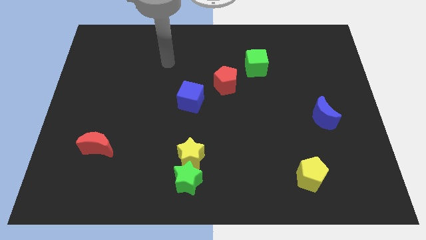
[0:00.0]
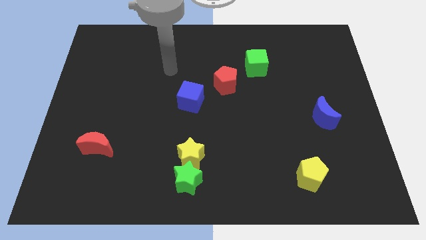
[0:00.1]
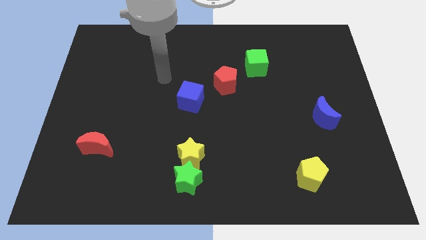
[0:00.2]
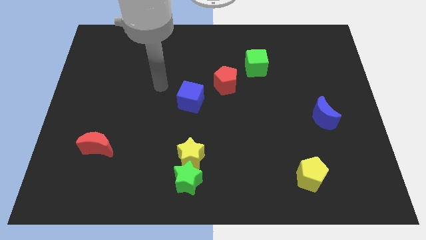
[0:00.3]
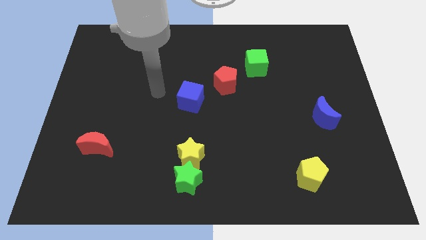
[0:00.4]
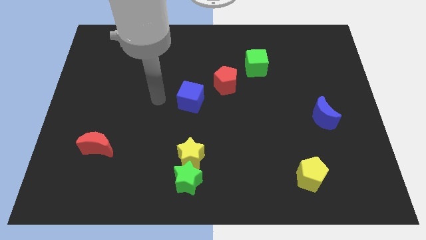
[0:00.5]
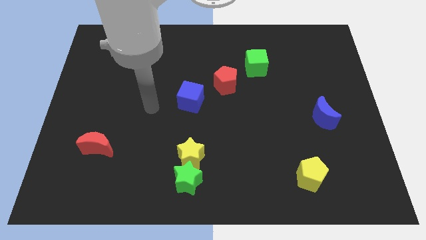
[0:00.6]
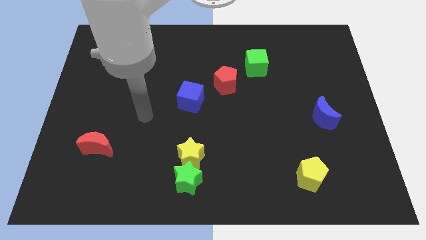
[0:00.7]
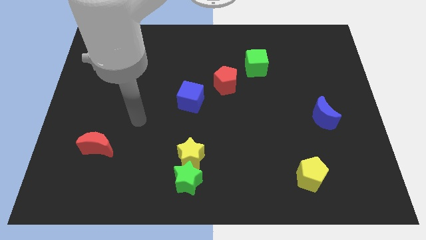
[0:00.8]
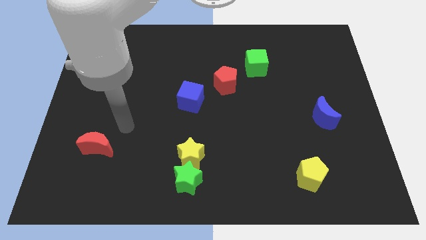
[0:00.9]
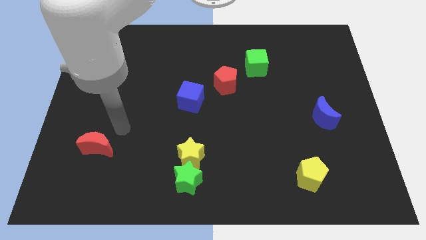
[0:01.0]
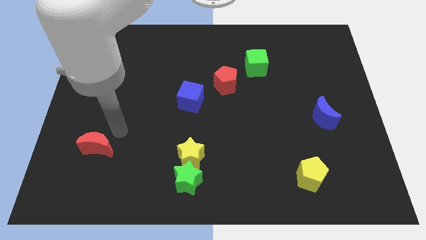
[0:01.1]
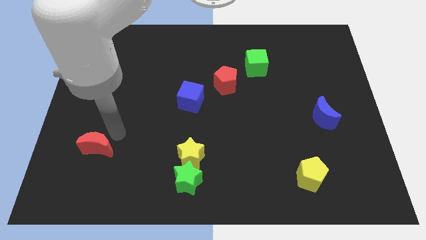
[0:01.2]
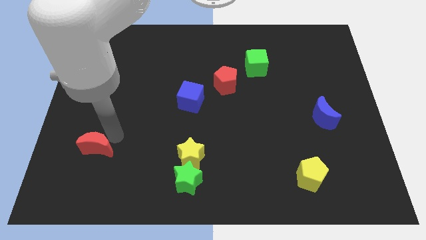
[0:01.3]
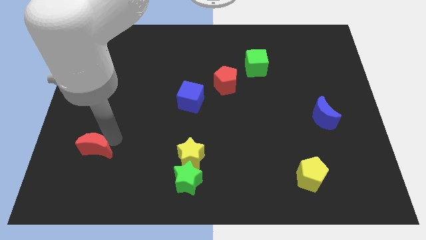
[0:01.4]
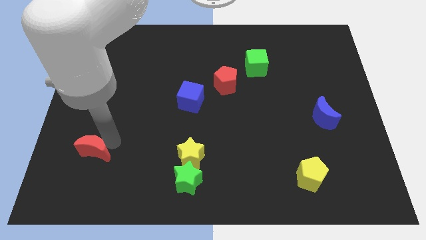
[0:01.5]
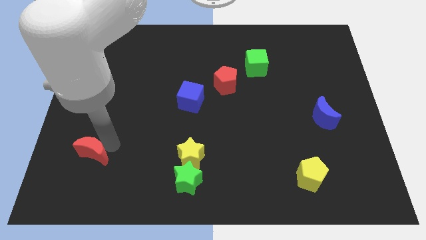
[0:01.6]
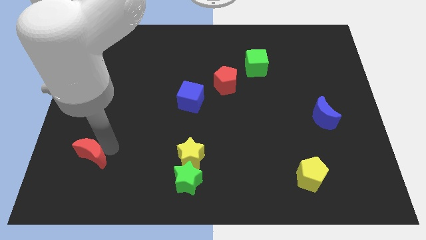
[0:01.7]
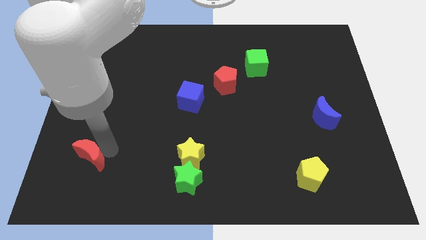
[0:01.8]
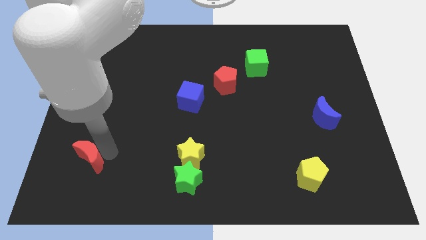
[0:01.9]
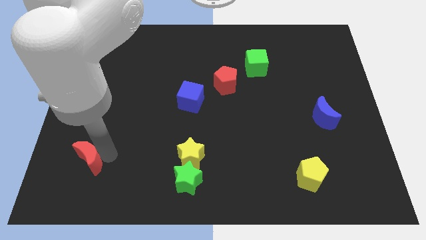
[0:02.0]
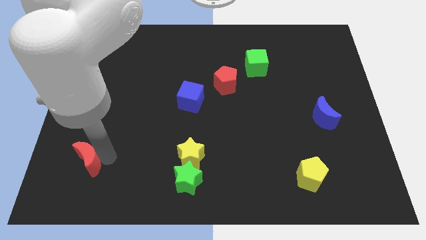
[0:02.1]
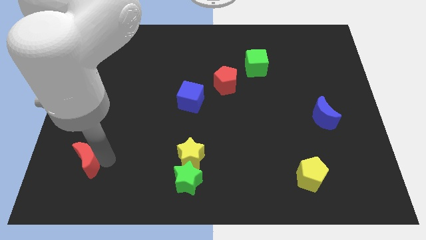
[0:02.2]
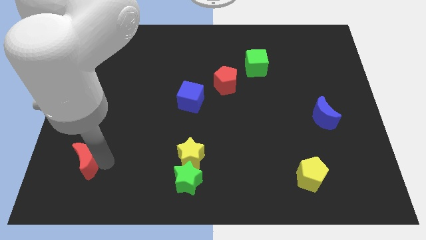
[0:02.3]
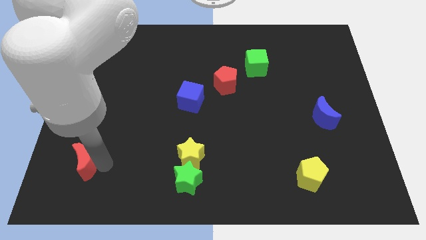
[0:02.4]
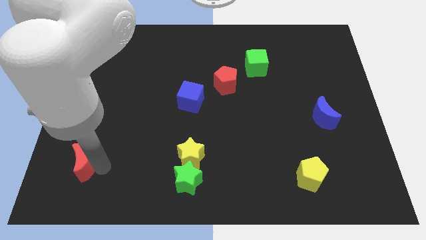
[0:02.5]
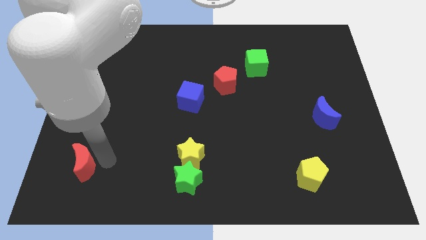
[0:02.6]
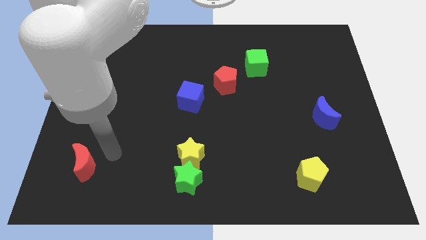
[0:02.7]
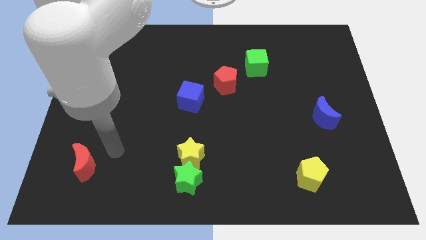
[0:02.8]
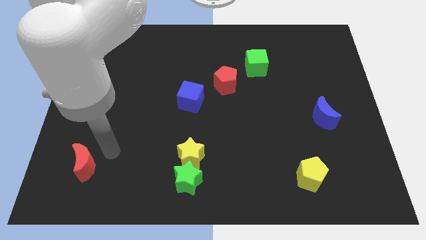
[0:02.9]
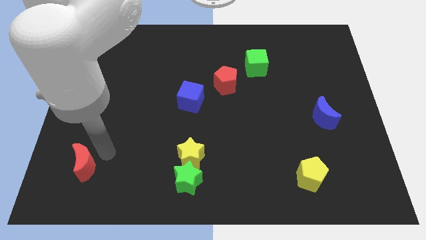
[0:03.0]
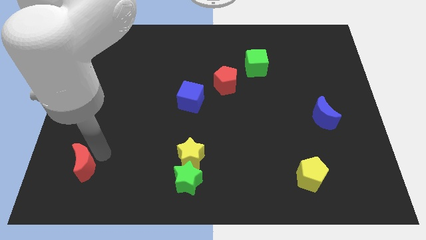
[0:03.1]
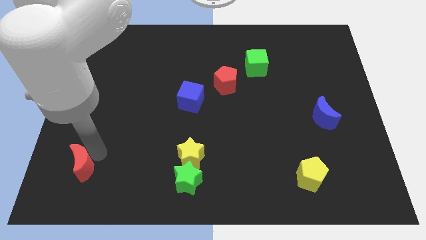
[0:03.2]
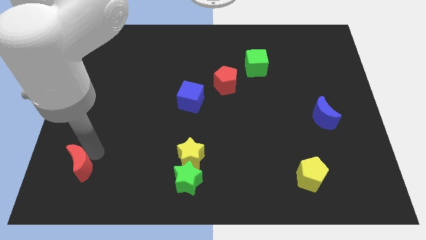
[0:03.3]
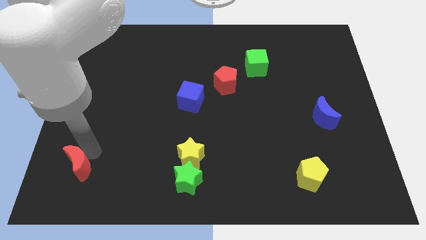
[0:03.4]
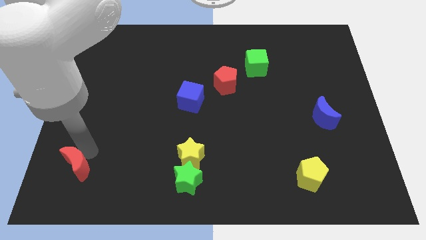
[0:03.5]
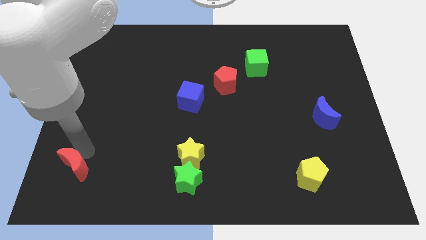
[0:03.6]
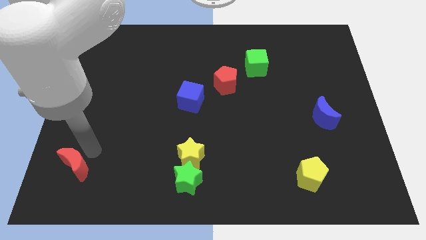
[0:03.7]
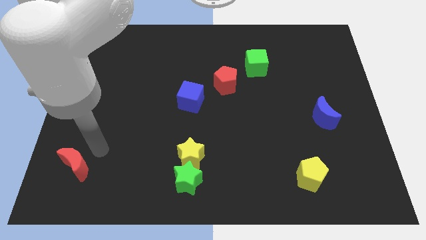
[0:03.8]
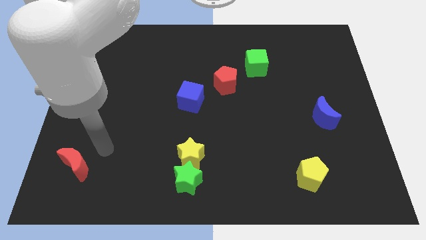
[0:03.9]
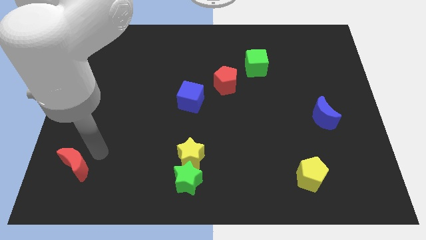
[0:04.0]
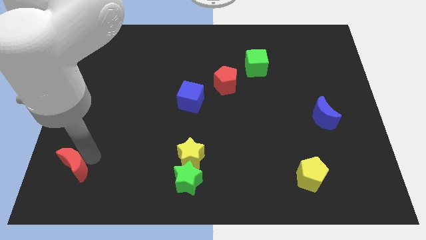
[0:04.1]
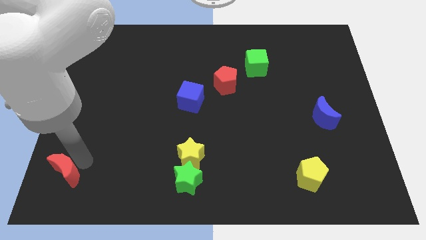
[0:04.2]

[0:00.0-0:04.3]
push the red moon to the bottom left corner

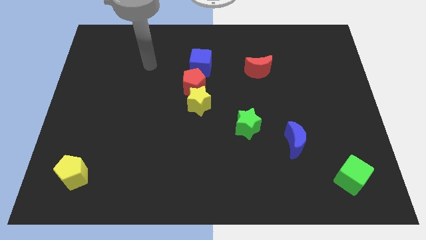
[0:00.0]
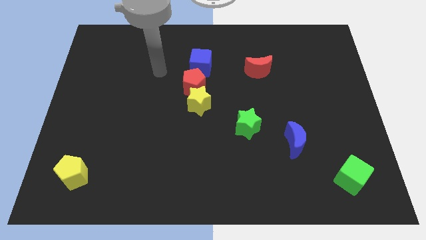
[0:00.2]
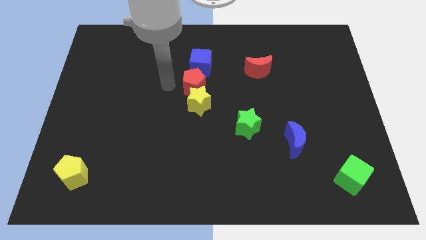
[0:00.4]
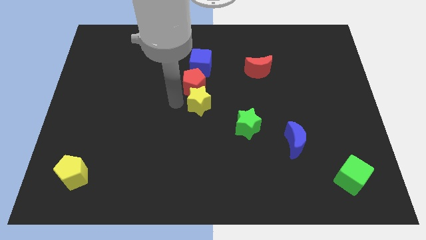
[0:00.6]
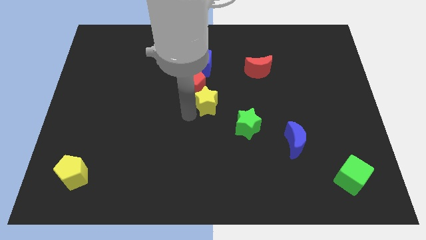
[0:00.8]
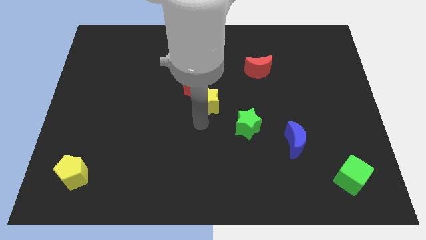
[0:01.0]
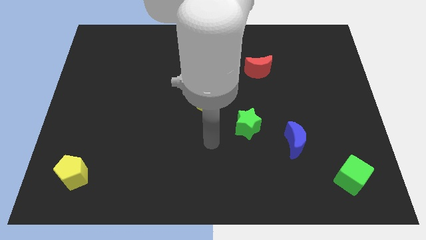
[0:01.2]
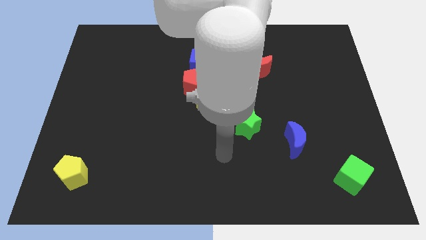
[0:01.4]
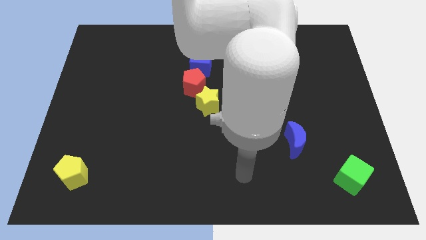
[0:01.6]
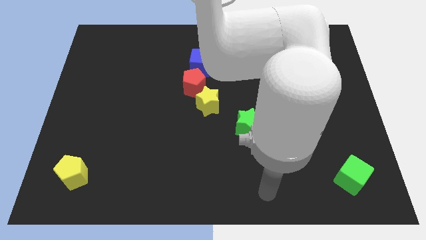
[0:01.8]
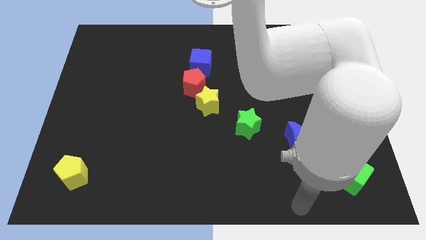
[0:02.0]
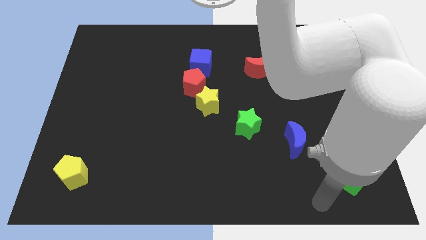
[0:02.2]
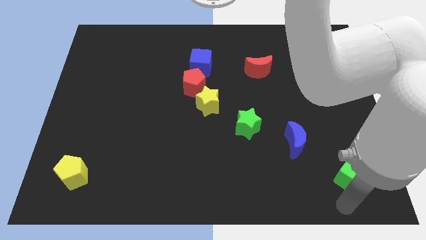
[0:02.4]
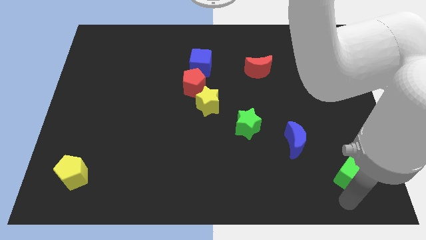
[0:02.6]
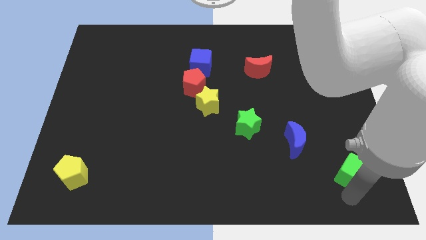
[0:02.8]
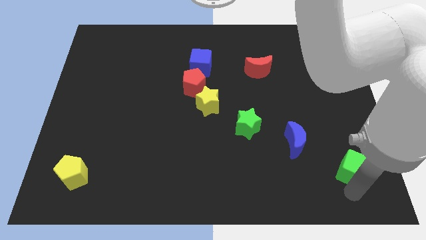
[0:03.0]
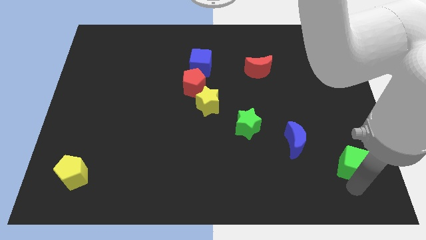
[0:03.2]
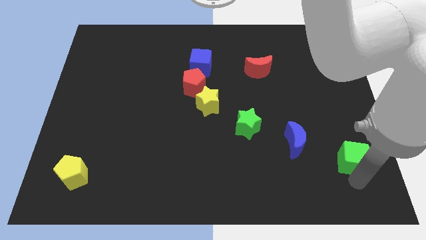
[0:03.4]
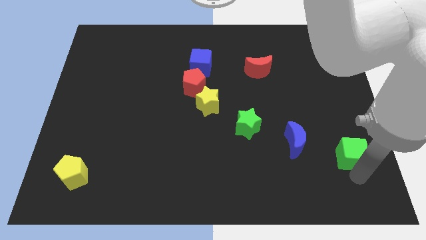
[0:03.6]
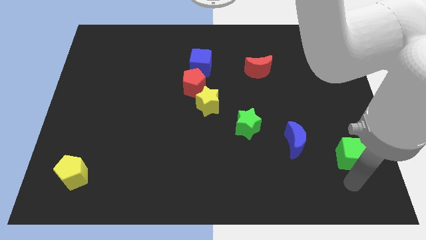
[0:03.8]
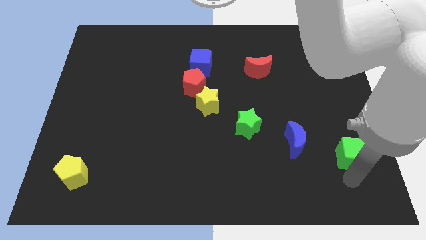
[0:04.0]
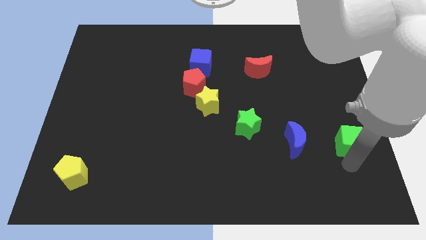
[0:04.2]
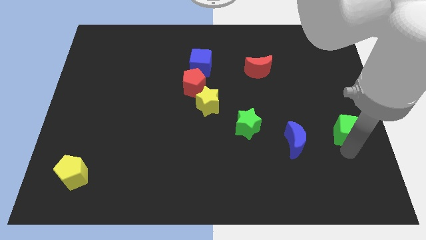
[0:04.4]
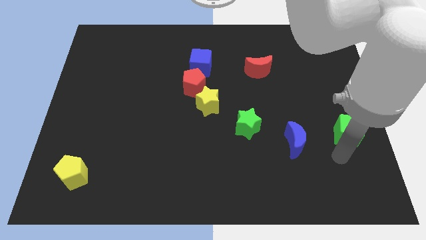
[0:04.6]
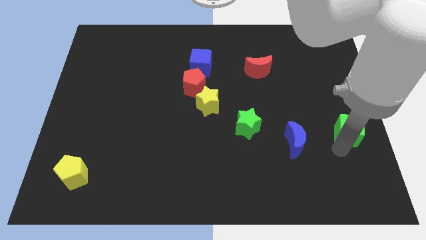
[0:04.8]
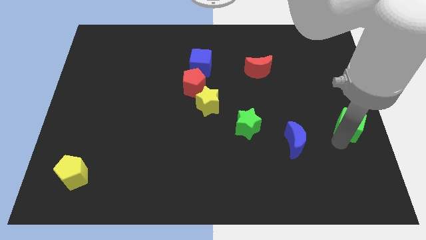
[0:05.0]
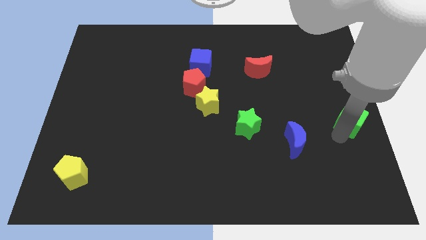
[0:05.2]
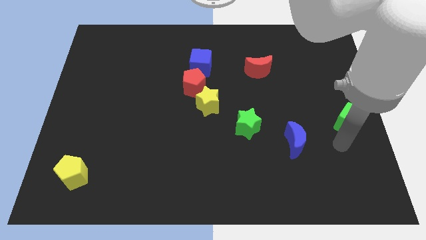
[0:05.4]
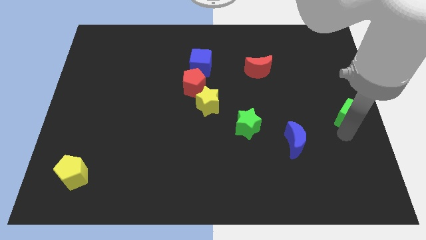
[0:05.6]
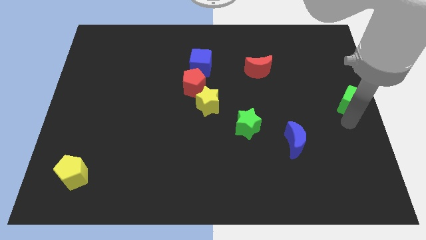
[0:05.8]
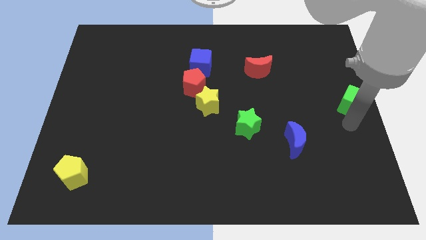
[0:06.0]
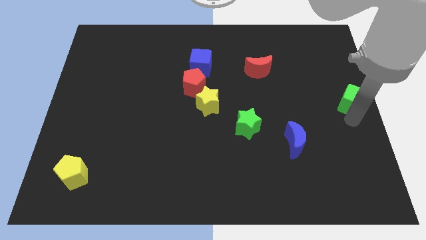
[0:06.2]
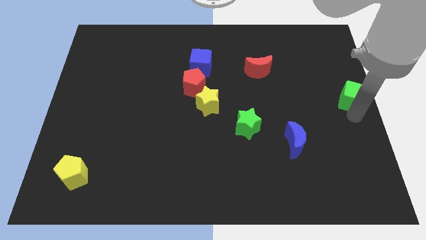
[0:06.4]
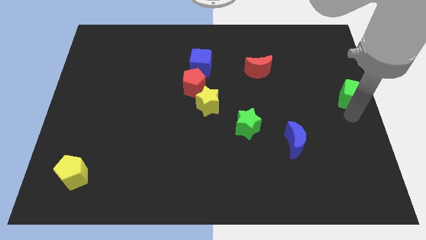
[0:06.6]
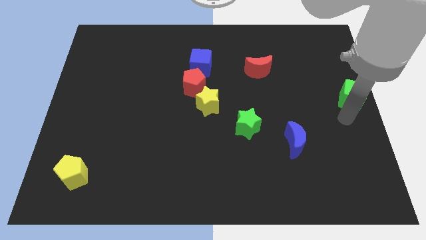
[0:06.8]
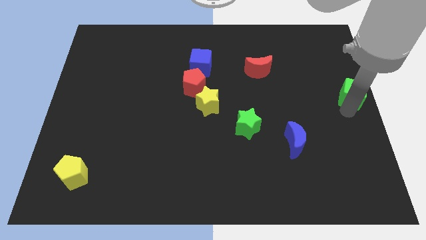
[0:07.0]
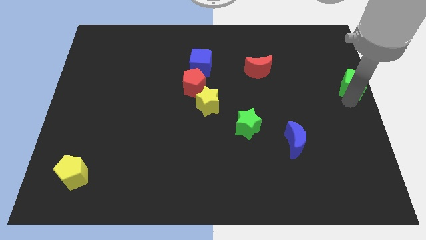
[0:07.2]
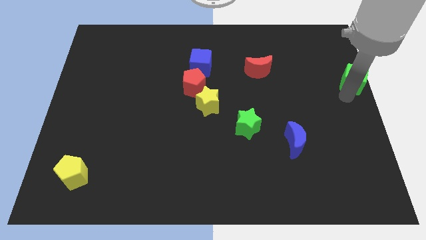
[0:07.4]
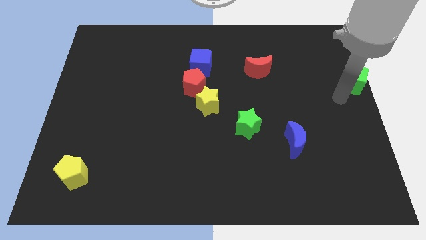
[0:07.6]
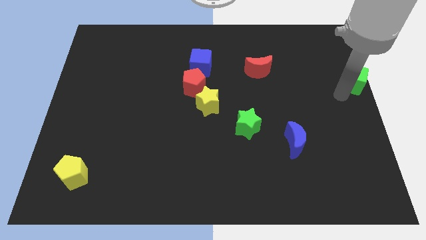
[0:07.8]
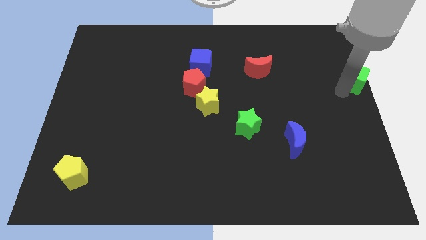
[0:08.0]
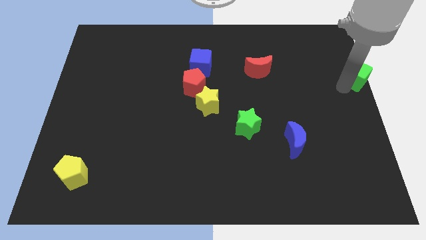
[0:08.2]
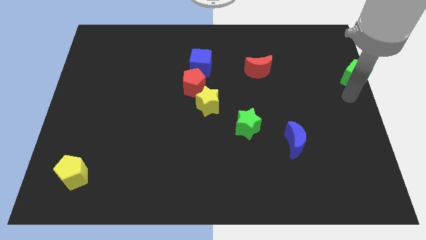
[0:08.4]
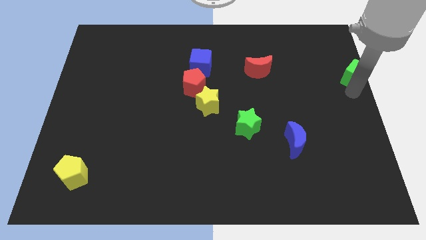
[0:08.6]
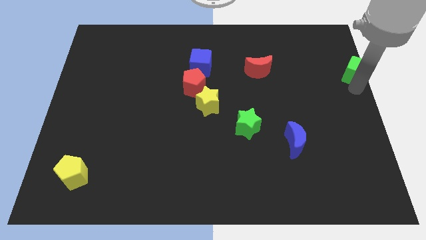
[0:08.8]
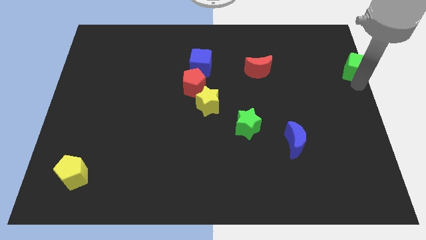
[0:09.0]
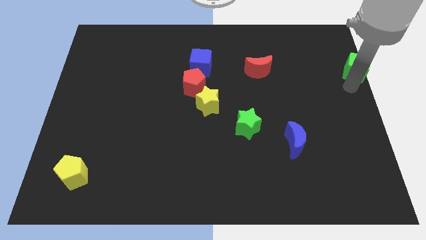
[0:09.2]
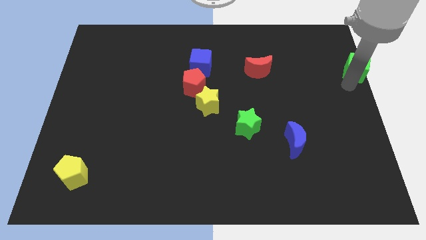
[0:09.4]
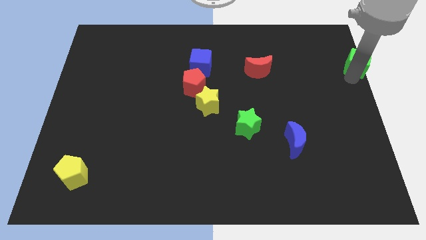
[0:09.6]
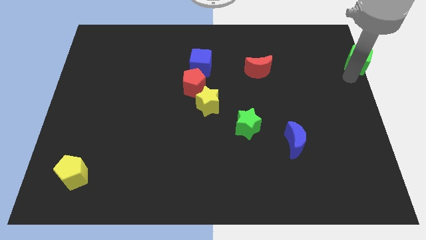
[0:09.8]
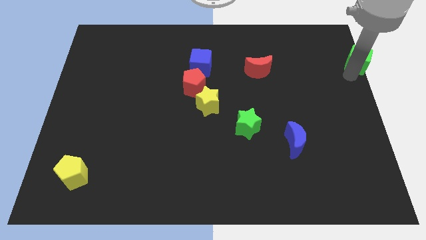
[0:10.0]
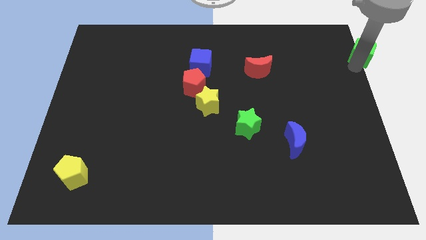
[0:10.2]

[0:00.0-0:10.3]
put the green cube to the top right of the board
